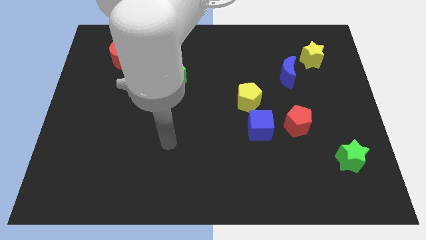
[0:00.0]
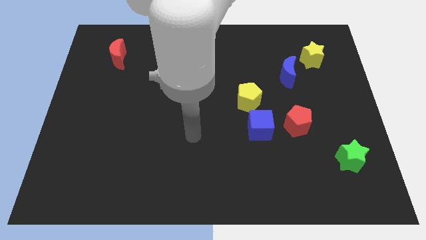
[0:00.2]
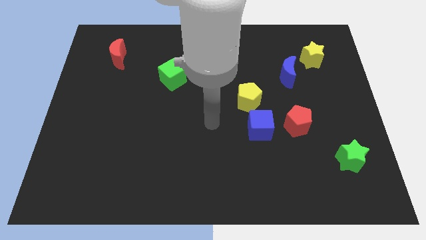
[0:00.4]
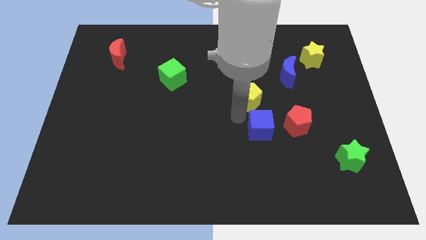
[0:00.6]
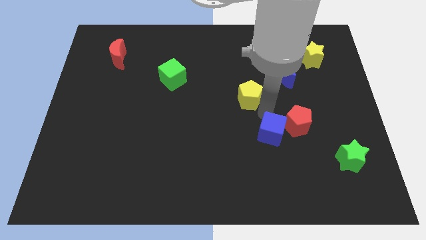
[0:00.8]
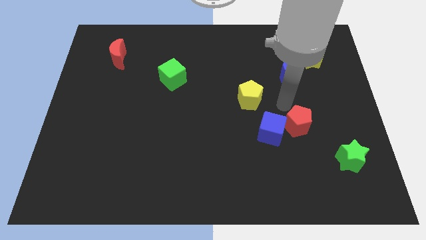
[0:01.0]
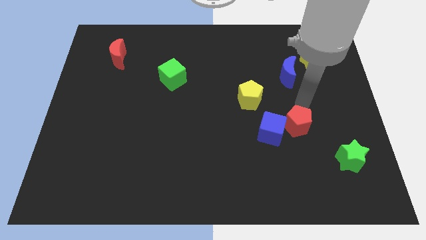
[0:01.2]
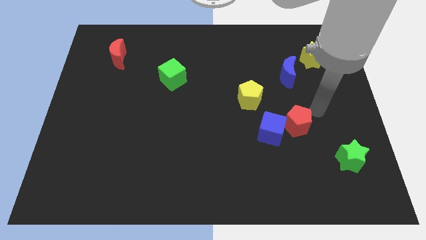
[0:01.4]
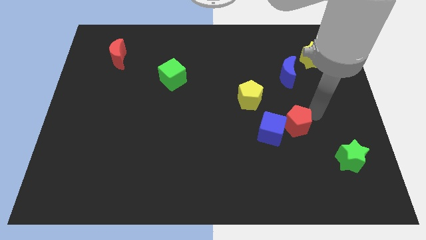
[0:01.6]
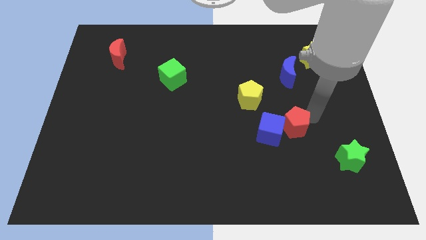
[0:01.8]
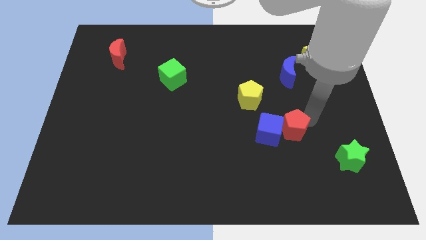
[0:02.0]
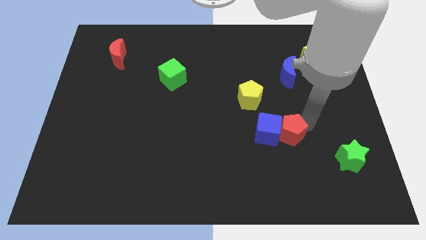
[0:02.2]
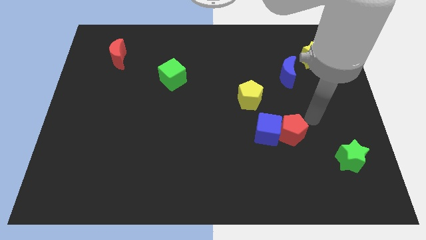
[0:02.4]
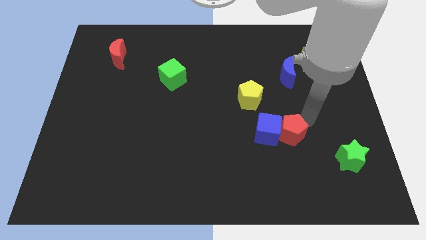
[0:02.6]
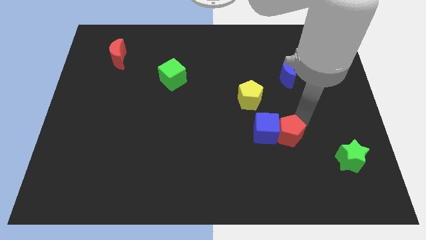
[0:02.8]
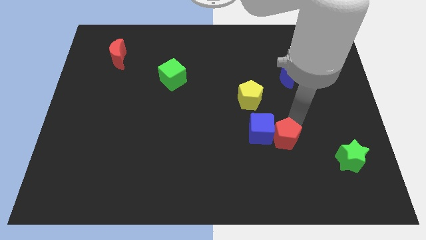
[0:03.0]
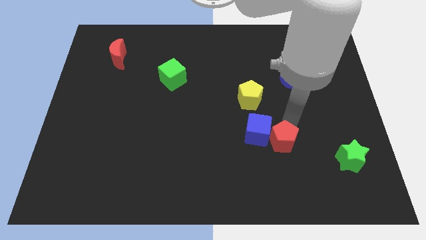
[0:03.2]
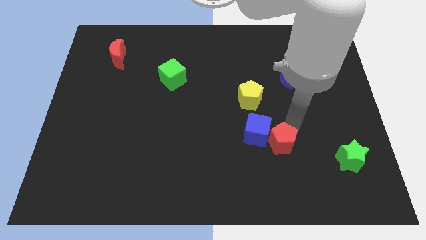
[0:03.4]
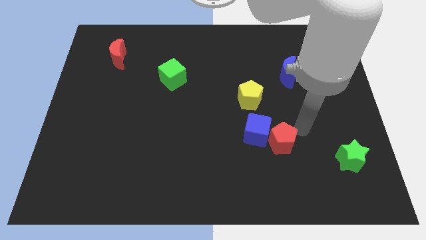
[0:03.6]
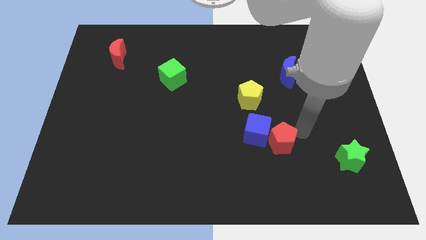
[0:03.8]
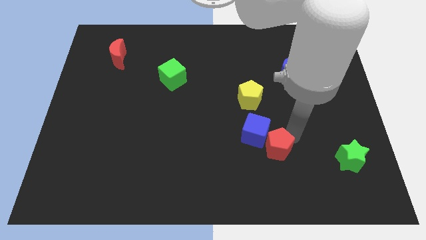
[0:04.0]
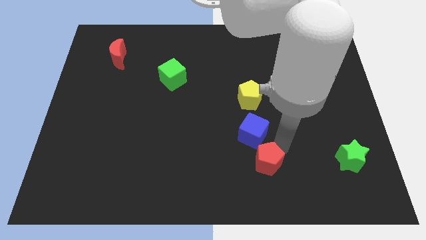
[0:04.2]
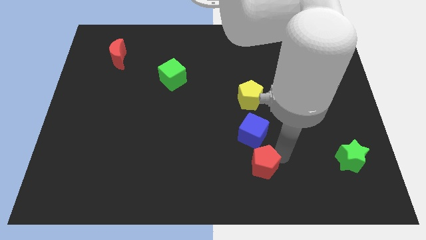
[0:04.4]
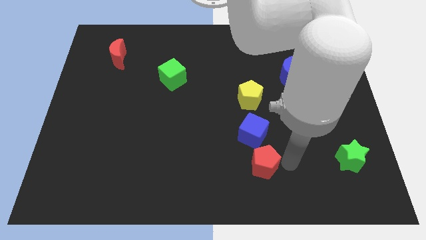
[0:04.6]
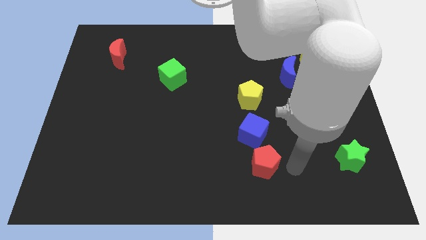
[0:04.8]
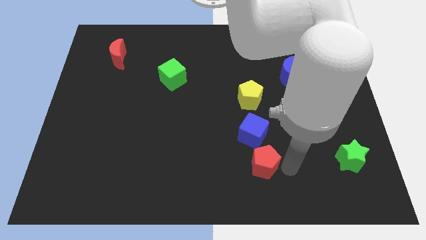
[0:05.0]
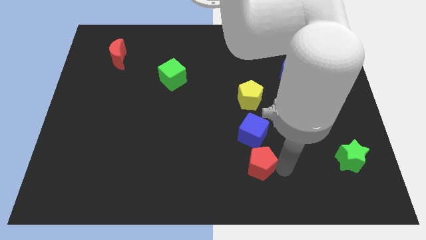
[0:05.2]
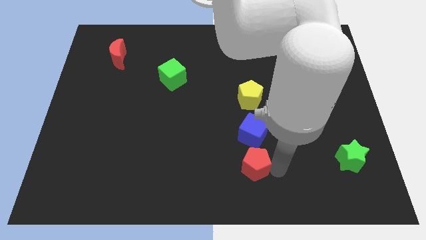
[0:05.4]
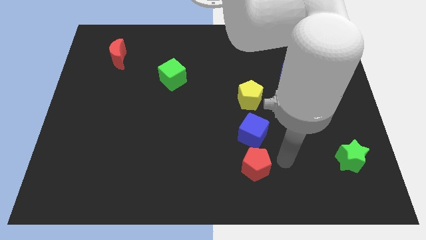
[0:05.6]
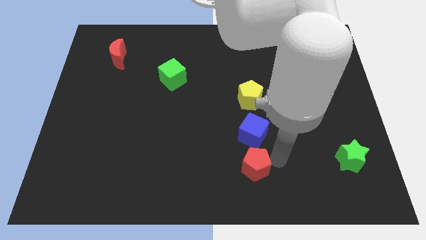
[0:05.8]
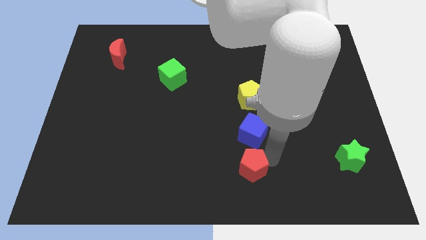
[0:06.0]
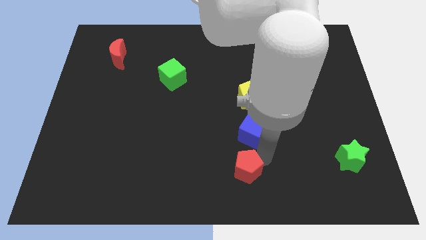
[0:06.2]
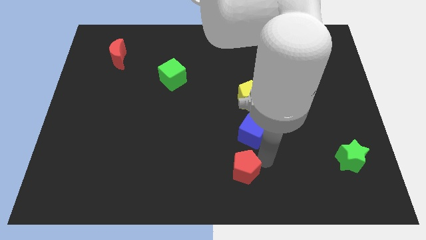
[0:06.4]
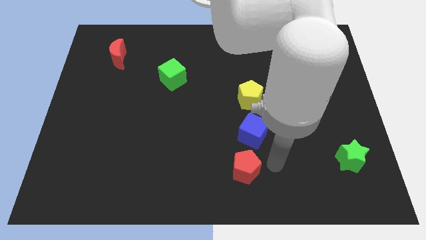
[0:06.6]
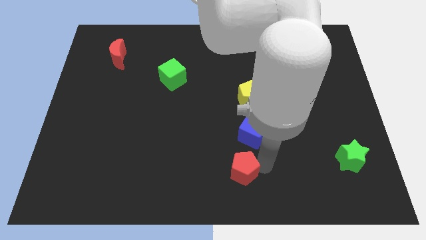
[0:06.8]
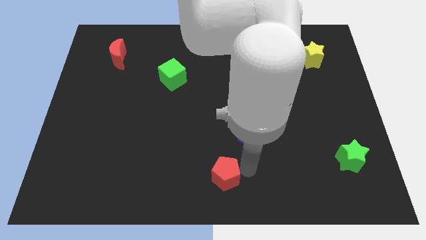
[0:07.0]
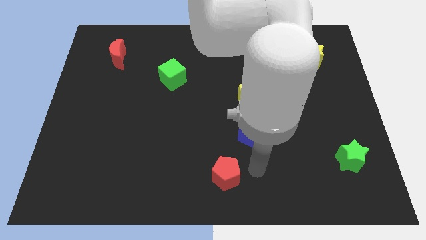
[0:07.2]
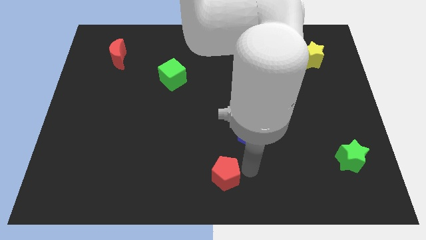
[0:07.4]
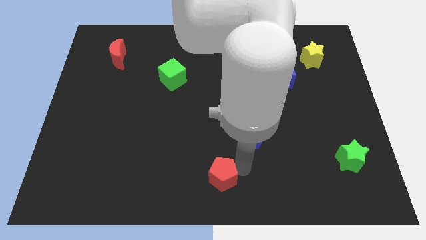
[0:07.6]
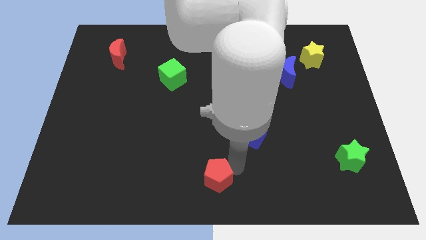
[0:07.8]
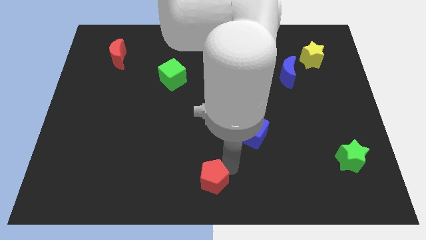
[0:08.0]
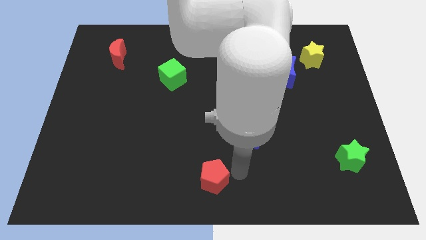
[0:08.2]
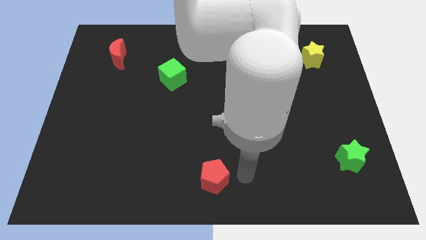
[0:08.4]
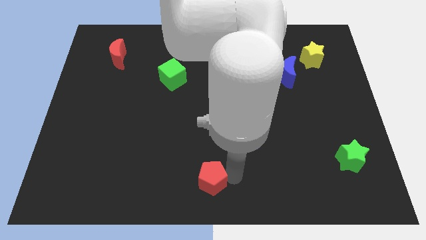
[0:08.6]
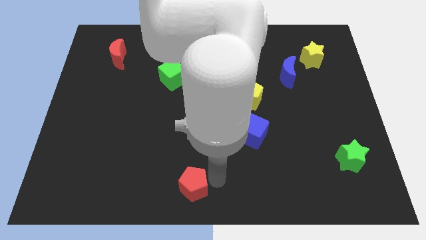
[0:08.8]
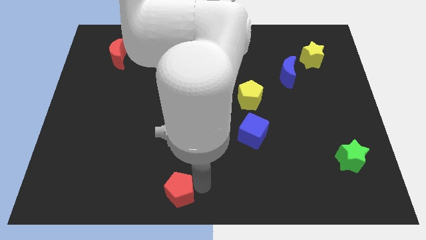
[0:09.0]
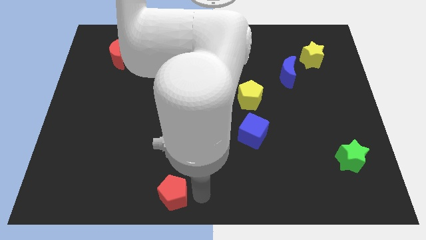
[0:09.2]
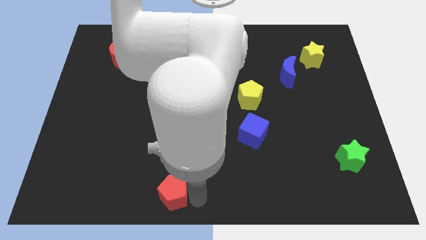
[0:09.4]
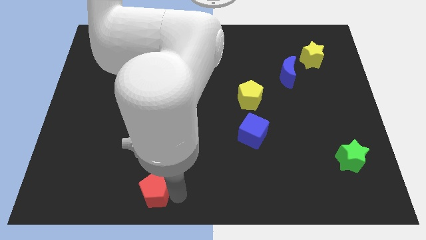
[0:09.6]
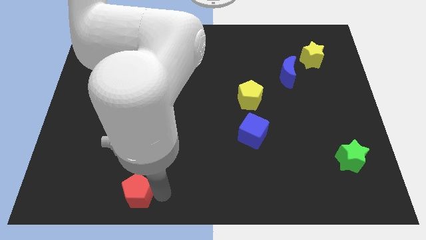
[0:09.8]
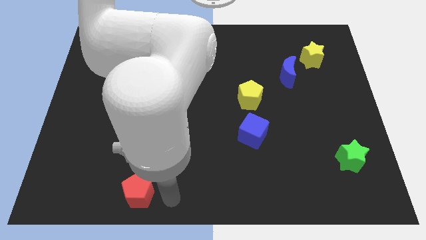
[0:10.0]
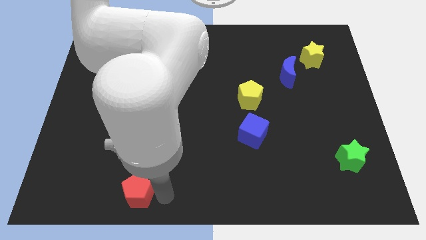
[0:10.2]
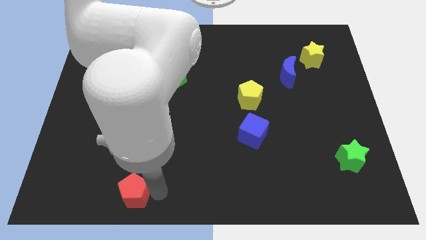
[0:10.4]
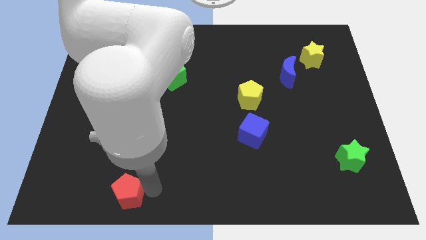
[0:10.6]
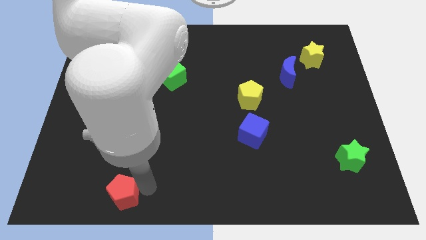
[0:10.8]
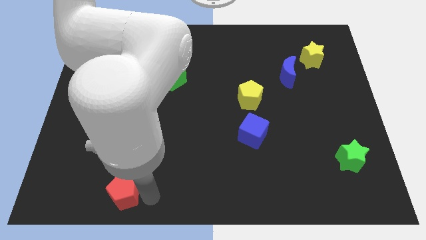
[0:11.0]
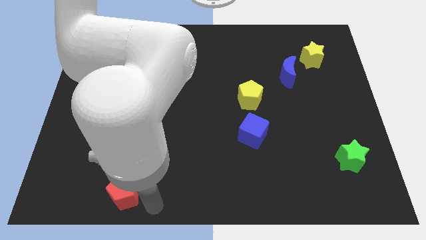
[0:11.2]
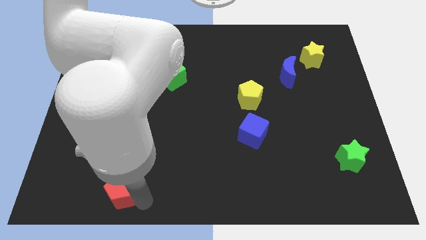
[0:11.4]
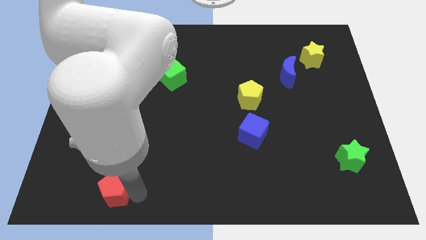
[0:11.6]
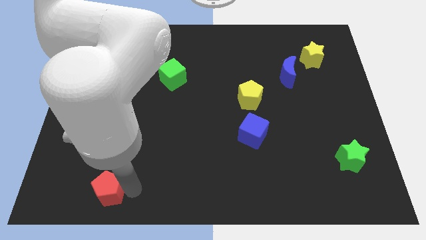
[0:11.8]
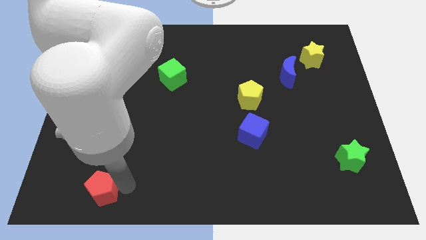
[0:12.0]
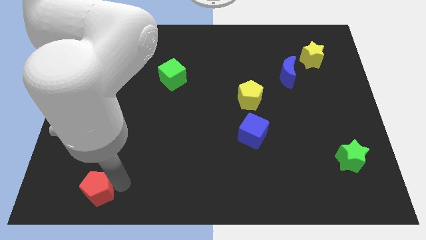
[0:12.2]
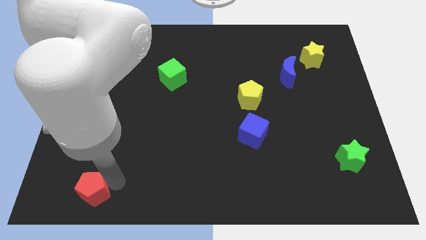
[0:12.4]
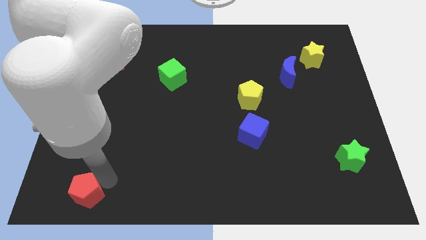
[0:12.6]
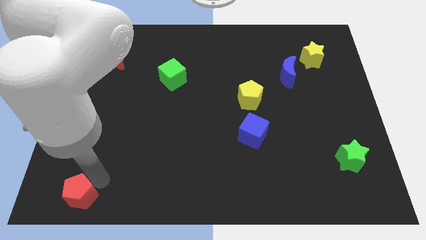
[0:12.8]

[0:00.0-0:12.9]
push the red pentagon to the bottom left of the board
